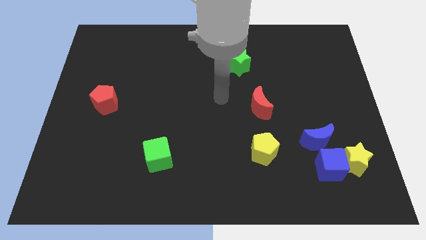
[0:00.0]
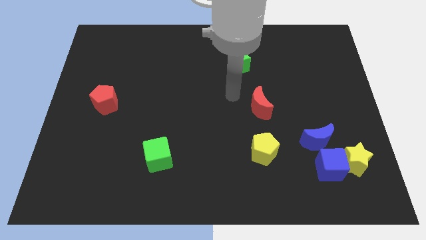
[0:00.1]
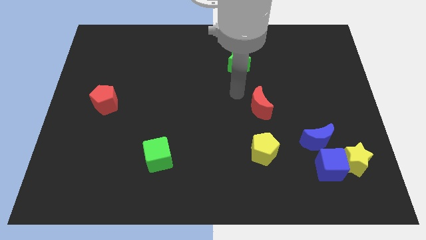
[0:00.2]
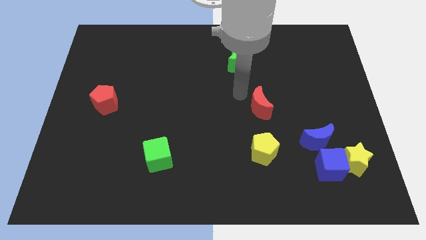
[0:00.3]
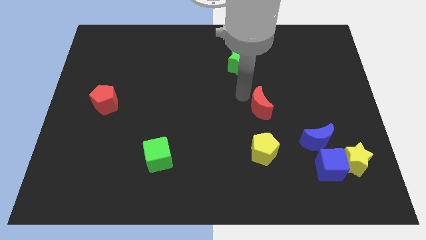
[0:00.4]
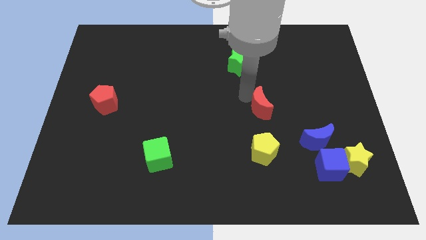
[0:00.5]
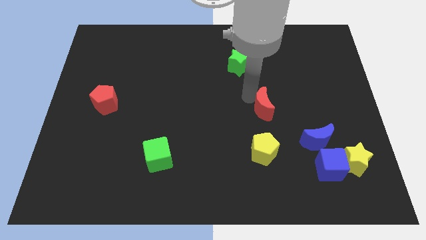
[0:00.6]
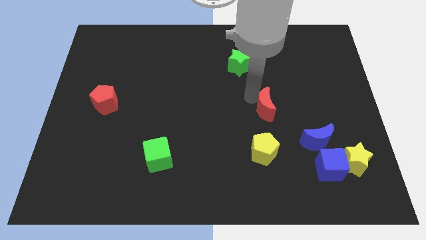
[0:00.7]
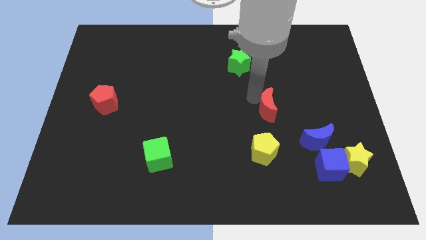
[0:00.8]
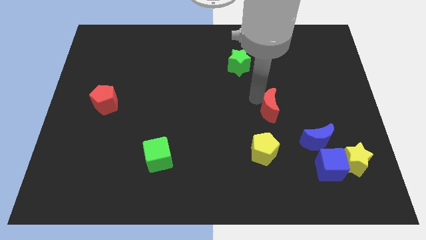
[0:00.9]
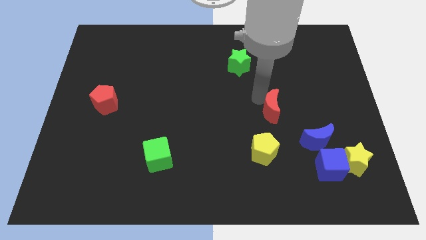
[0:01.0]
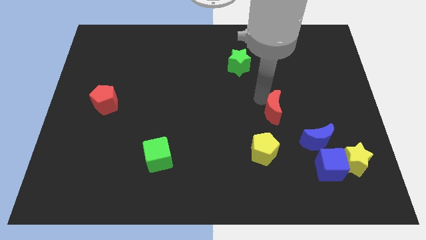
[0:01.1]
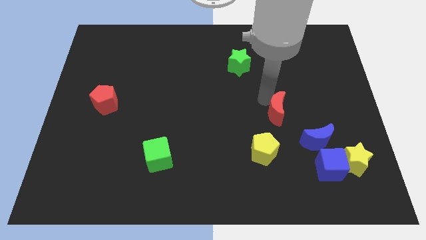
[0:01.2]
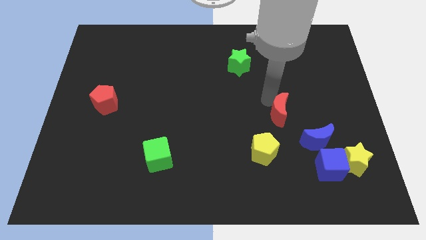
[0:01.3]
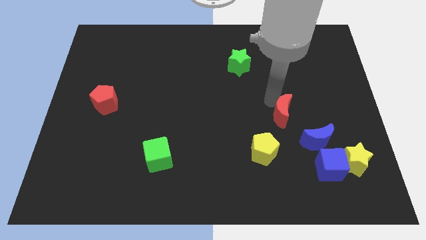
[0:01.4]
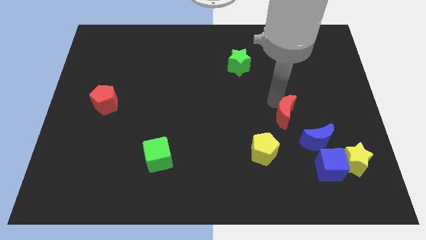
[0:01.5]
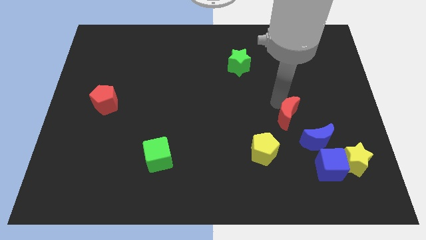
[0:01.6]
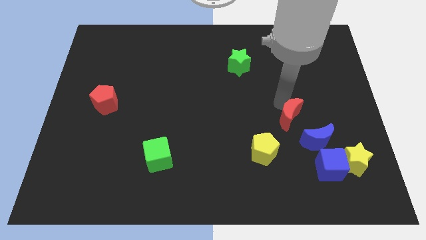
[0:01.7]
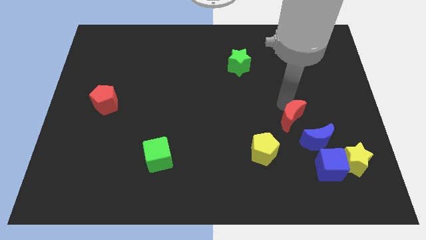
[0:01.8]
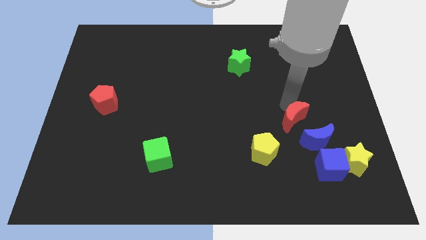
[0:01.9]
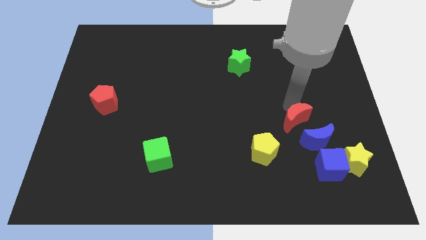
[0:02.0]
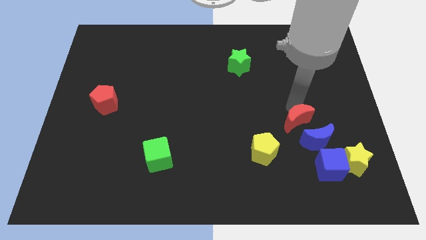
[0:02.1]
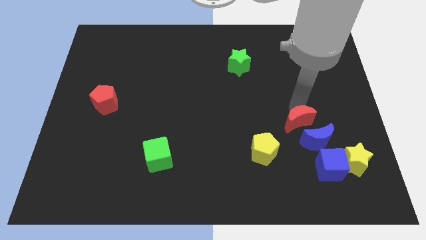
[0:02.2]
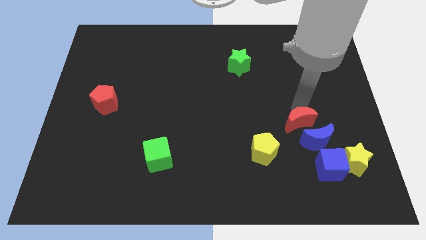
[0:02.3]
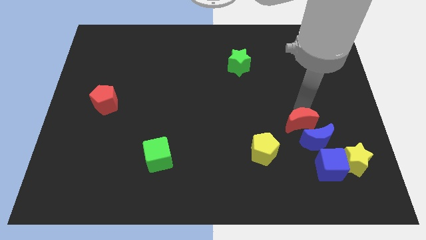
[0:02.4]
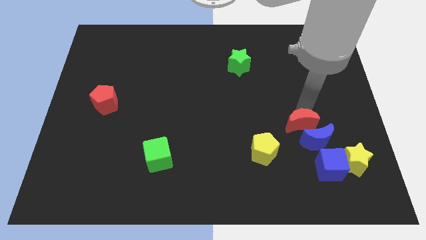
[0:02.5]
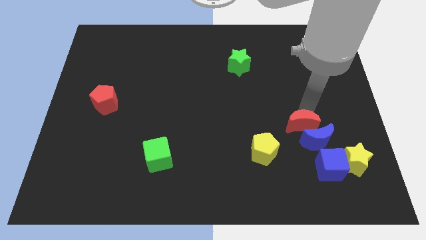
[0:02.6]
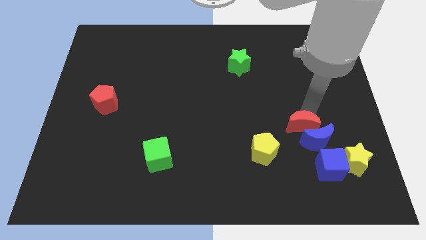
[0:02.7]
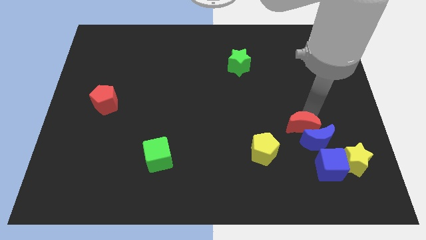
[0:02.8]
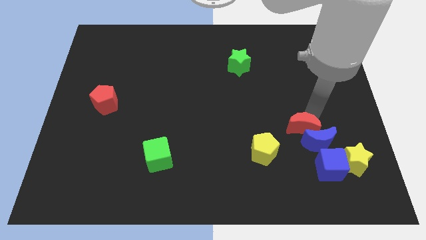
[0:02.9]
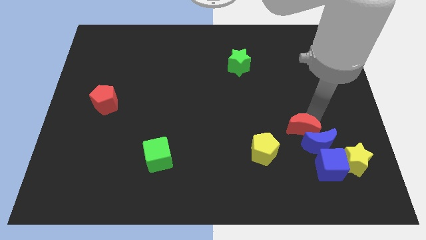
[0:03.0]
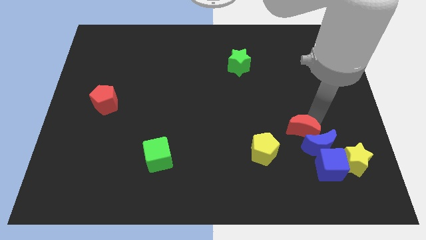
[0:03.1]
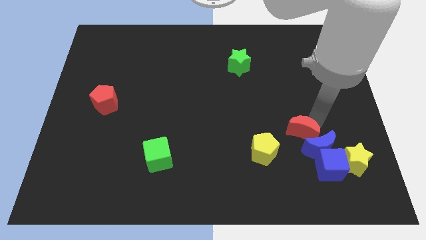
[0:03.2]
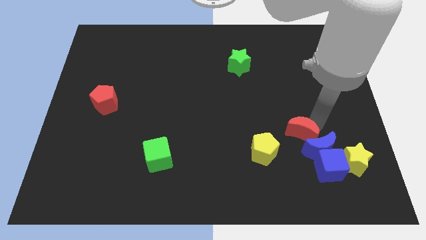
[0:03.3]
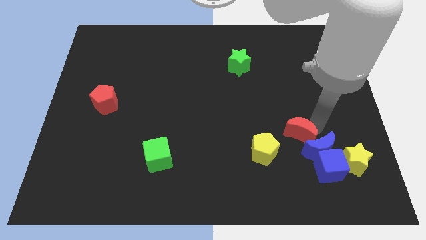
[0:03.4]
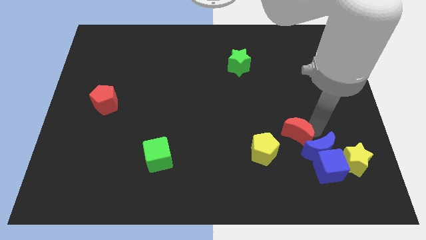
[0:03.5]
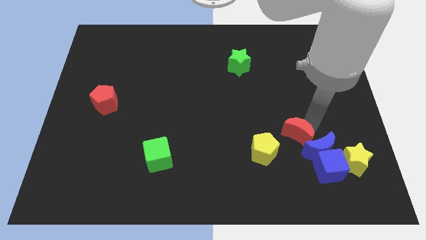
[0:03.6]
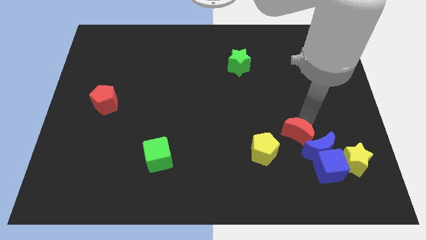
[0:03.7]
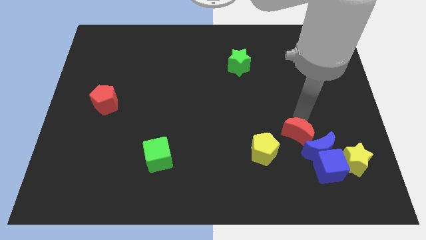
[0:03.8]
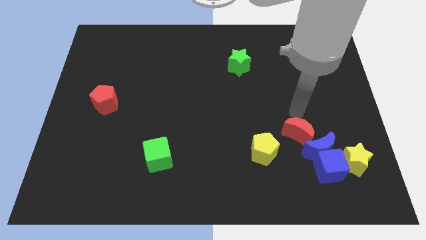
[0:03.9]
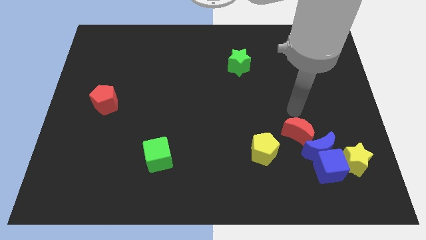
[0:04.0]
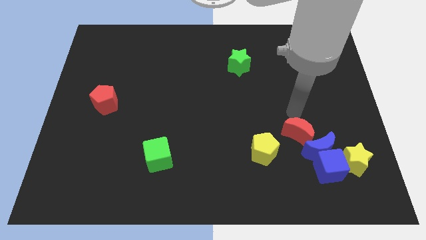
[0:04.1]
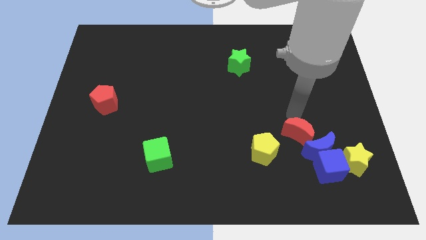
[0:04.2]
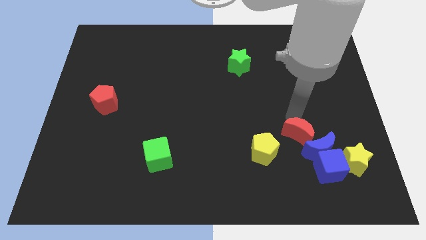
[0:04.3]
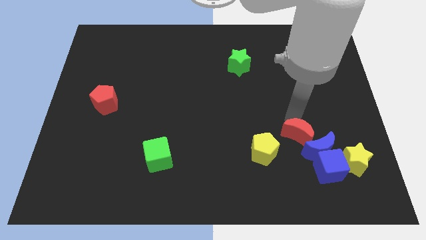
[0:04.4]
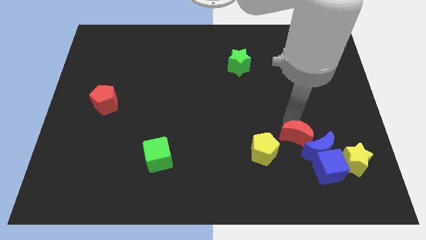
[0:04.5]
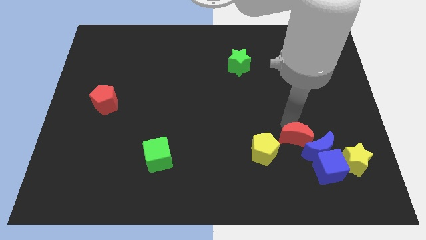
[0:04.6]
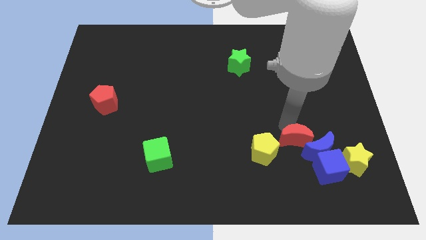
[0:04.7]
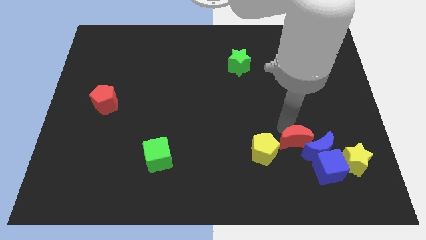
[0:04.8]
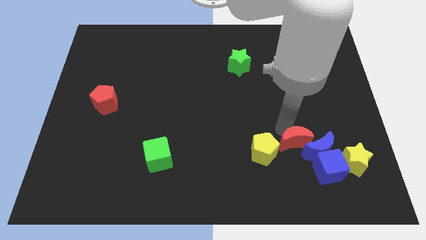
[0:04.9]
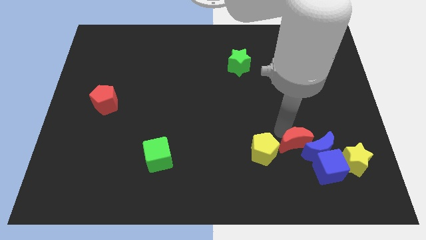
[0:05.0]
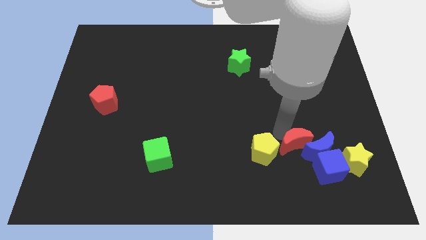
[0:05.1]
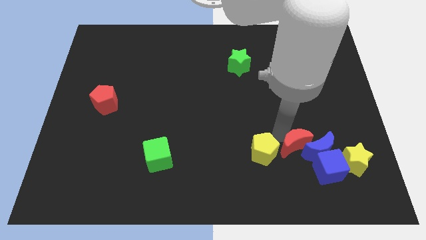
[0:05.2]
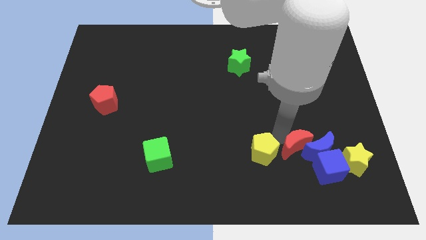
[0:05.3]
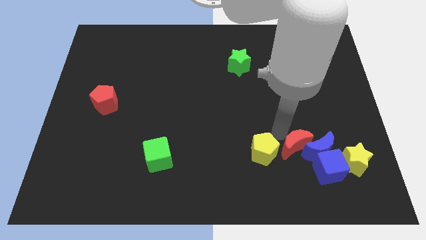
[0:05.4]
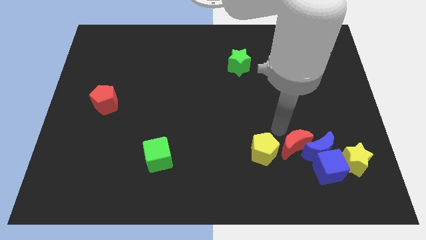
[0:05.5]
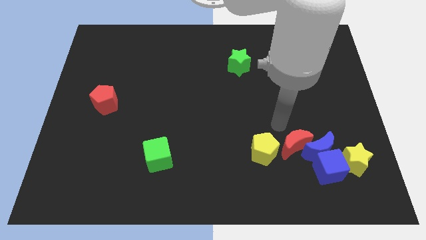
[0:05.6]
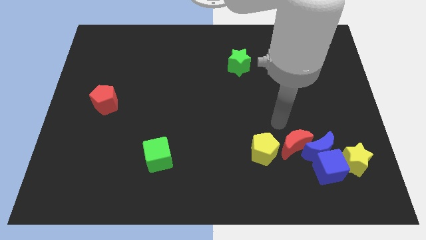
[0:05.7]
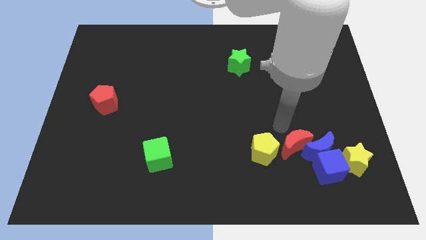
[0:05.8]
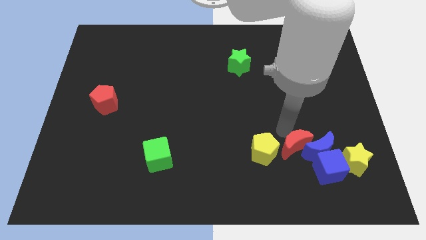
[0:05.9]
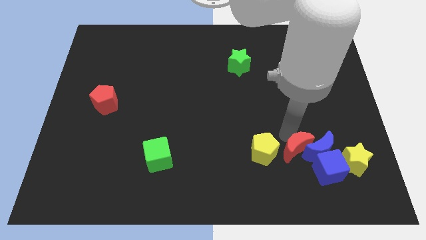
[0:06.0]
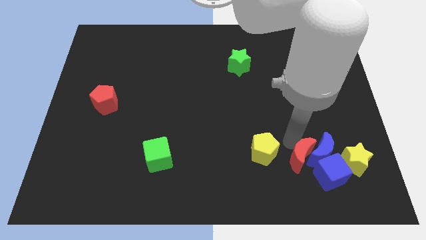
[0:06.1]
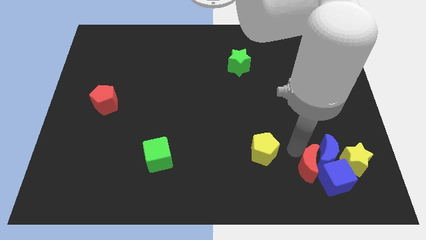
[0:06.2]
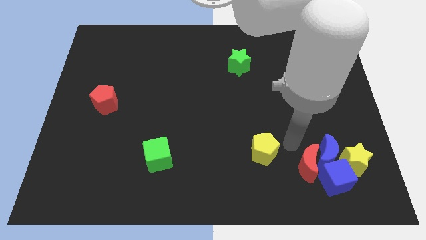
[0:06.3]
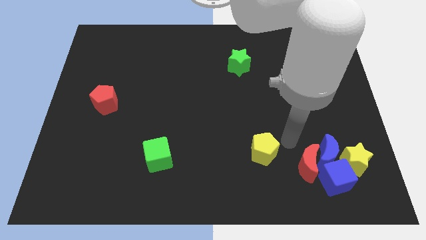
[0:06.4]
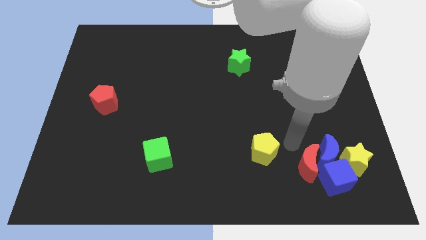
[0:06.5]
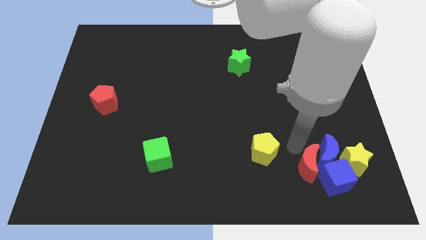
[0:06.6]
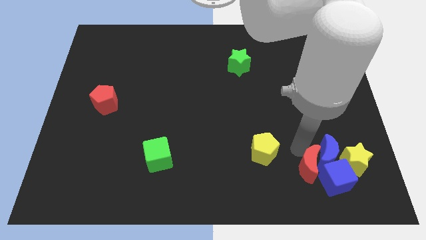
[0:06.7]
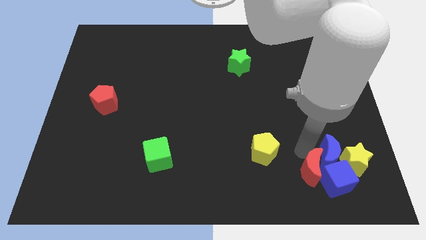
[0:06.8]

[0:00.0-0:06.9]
push the red moon to the bottom side of the blue moon
